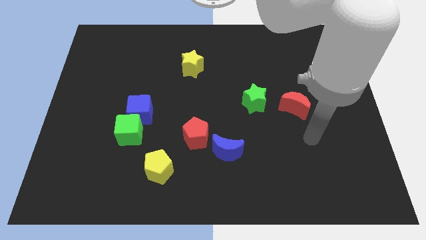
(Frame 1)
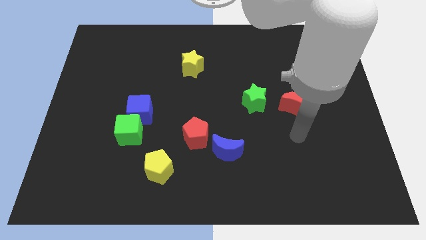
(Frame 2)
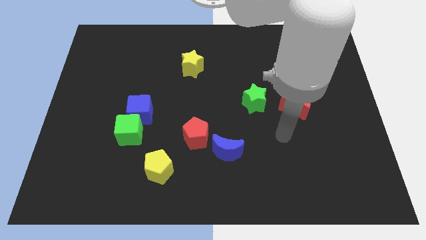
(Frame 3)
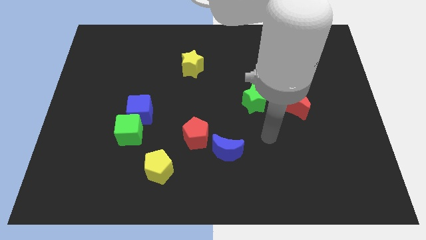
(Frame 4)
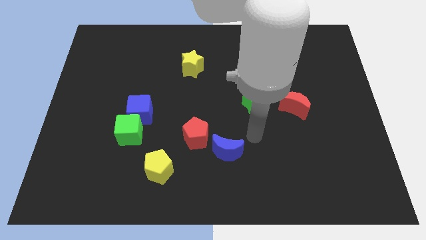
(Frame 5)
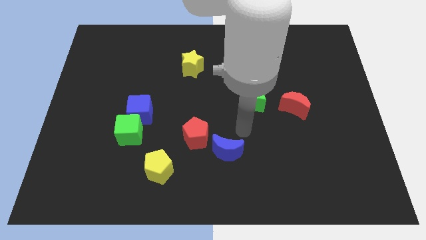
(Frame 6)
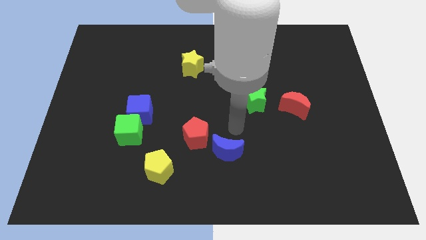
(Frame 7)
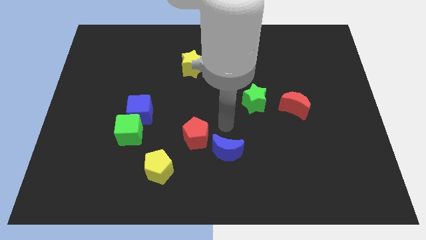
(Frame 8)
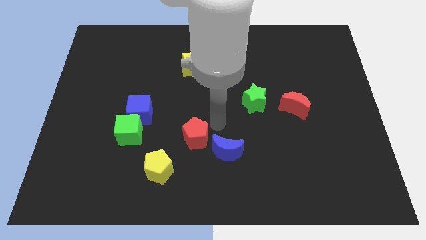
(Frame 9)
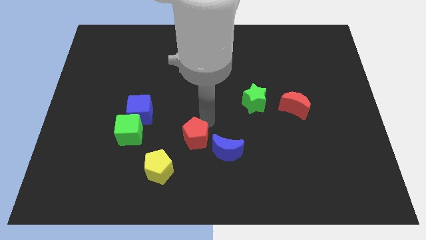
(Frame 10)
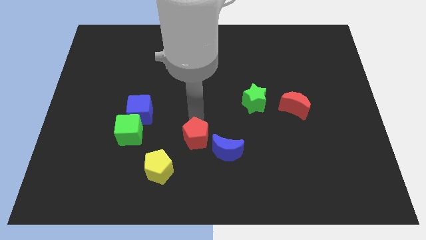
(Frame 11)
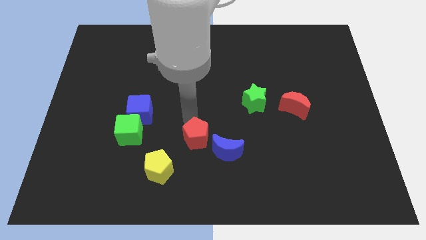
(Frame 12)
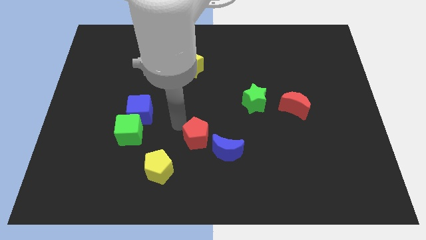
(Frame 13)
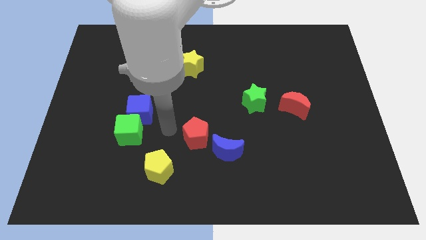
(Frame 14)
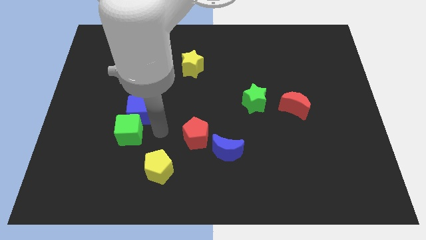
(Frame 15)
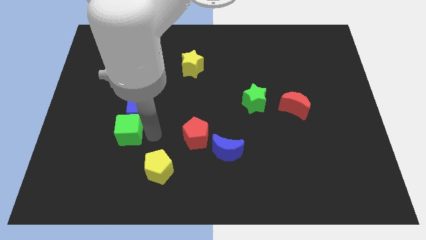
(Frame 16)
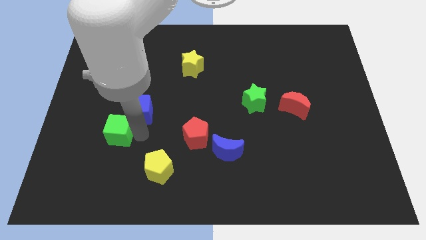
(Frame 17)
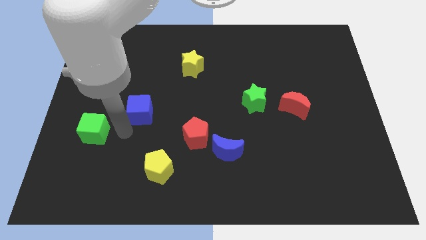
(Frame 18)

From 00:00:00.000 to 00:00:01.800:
move the blue cube away from the green cube

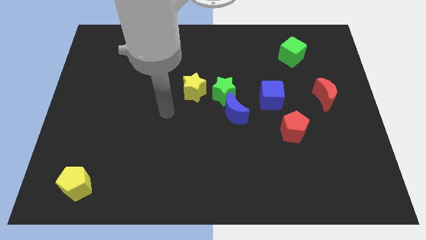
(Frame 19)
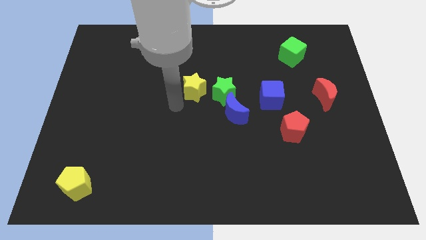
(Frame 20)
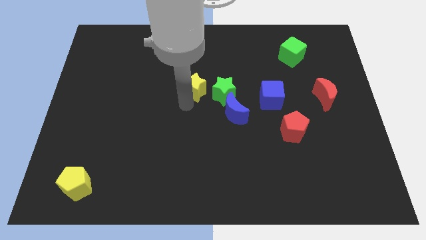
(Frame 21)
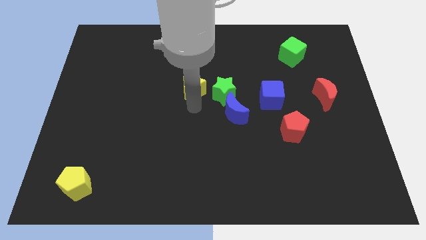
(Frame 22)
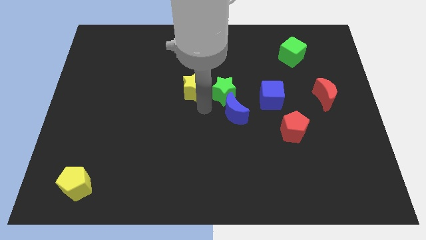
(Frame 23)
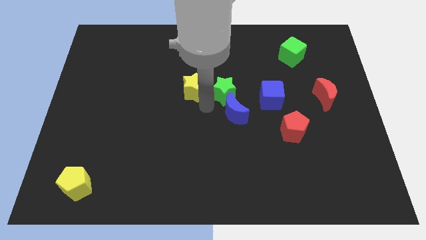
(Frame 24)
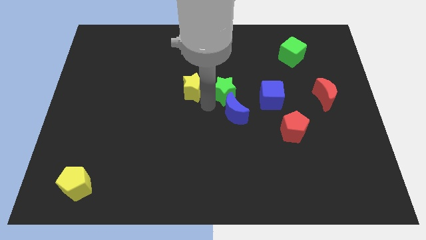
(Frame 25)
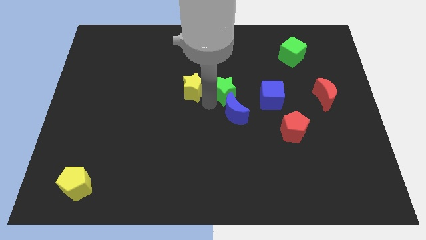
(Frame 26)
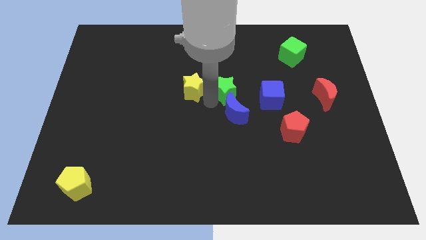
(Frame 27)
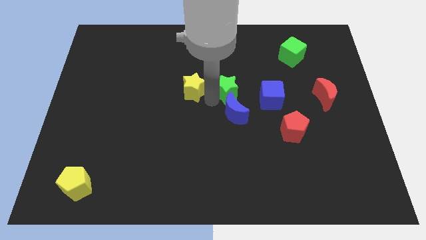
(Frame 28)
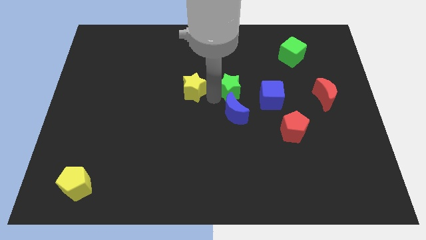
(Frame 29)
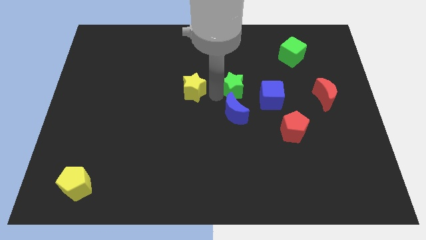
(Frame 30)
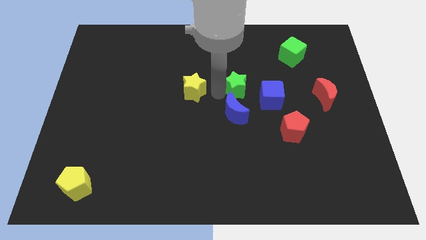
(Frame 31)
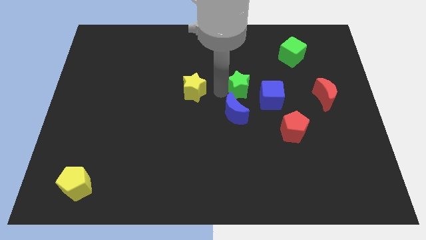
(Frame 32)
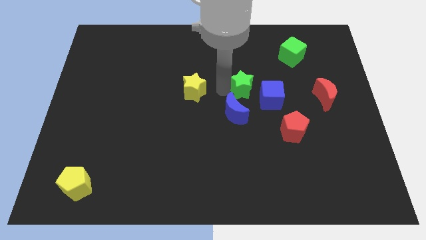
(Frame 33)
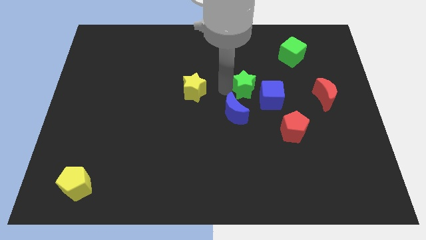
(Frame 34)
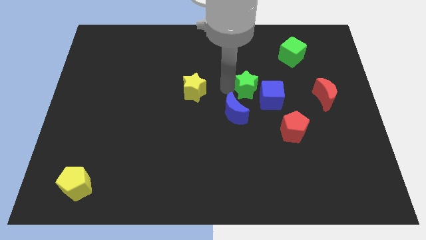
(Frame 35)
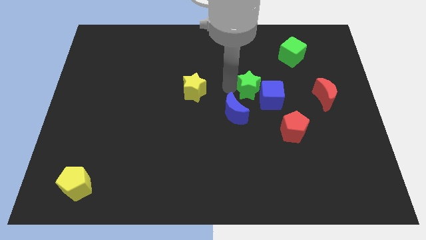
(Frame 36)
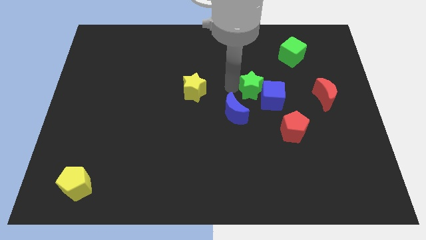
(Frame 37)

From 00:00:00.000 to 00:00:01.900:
separate the green star from the blue moon and yellow star

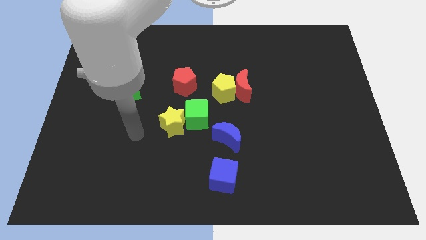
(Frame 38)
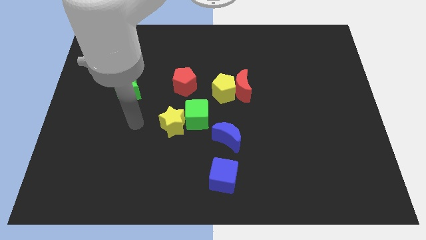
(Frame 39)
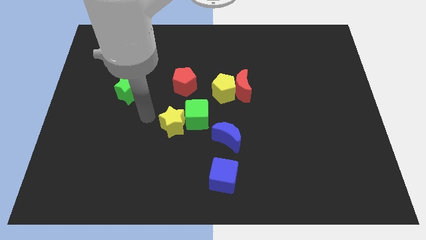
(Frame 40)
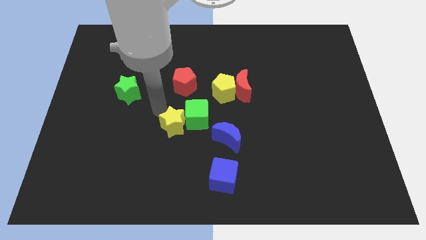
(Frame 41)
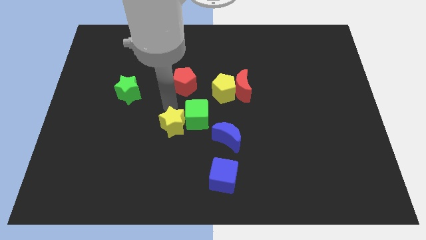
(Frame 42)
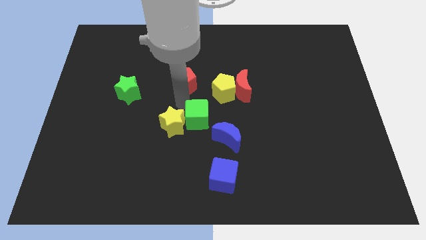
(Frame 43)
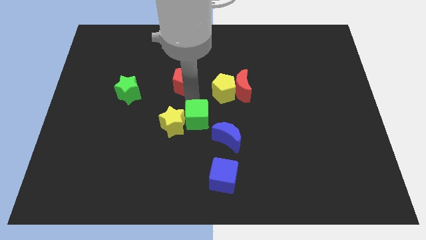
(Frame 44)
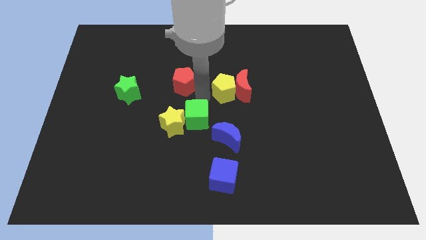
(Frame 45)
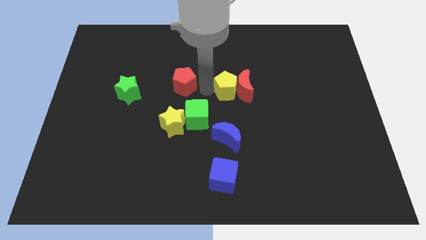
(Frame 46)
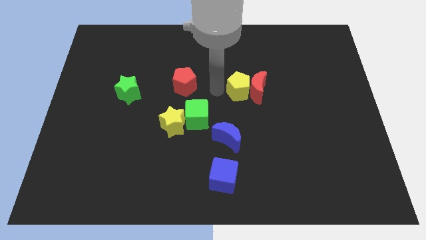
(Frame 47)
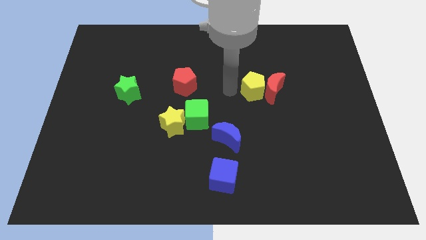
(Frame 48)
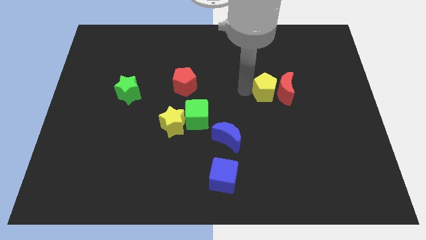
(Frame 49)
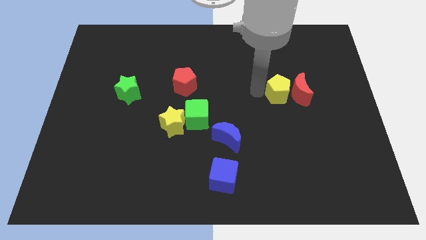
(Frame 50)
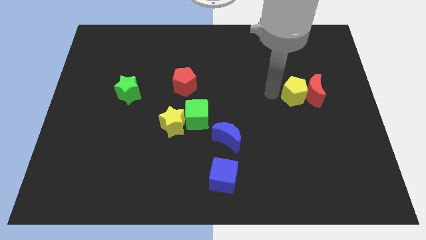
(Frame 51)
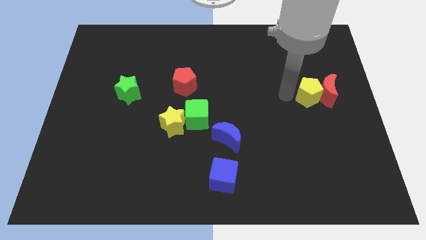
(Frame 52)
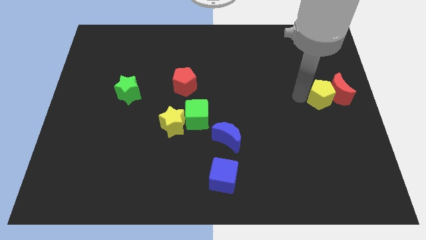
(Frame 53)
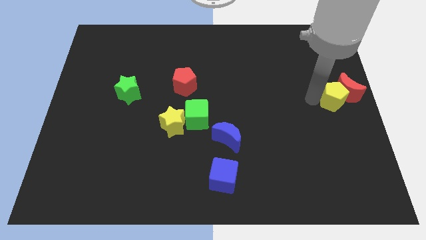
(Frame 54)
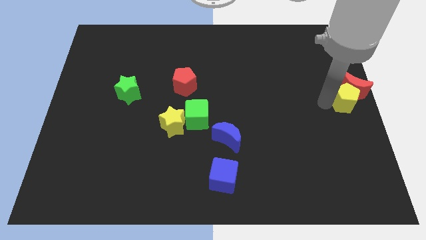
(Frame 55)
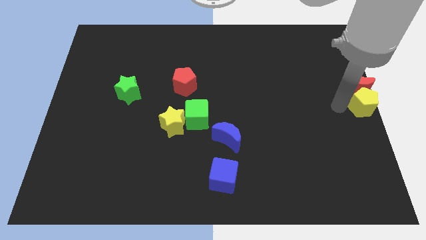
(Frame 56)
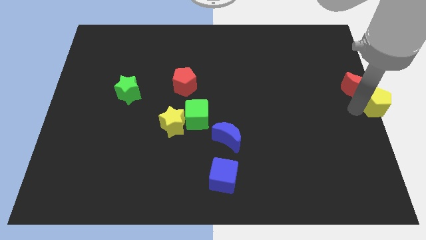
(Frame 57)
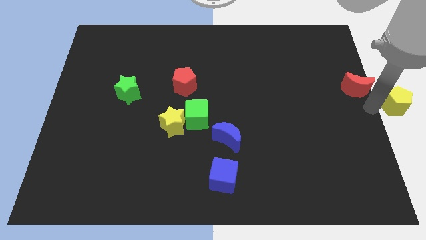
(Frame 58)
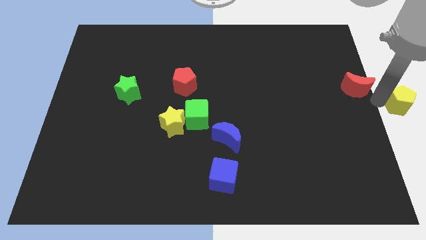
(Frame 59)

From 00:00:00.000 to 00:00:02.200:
pull the red moon apart from the yellow pentagon

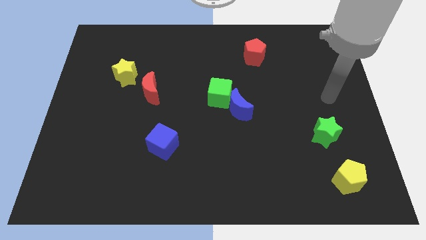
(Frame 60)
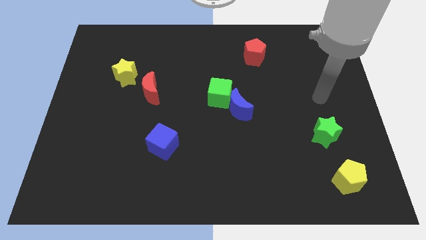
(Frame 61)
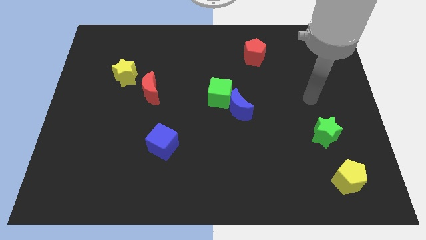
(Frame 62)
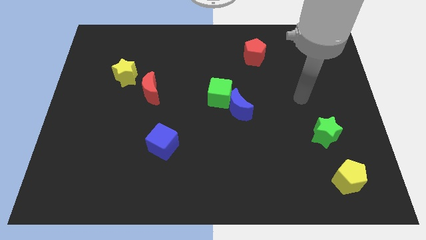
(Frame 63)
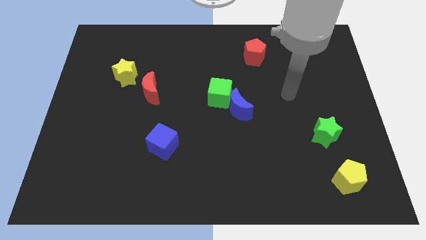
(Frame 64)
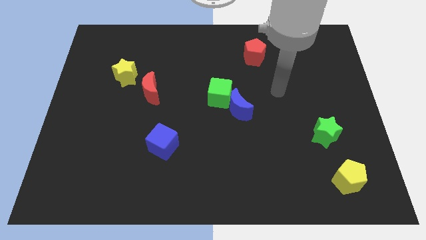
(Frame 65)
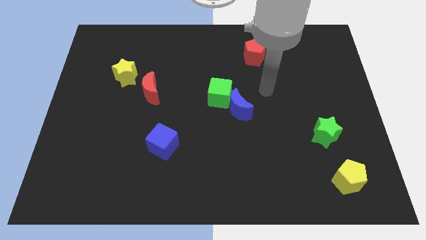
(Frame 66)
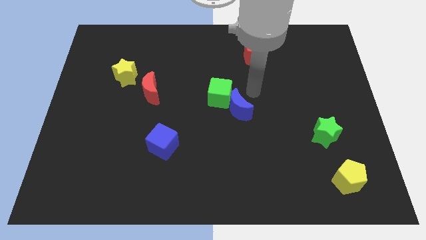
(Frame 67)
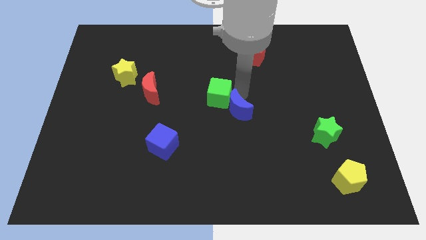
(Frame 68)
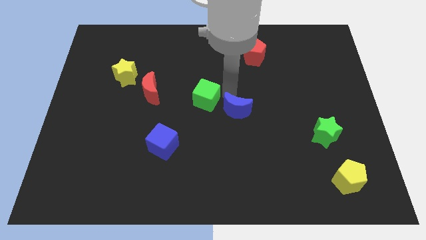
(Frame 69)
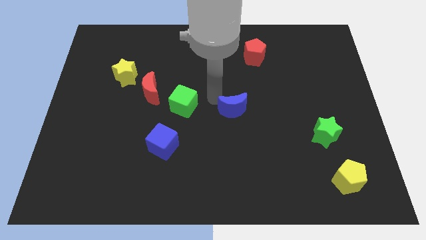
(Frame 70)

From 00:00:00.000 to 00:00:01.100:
separate the blue moon from the green cube

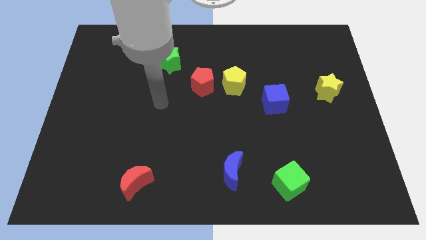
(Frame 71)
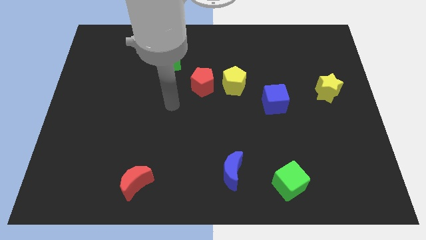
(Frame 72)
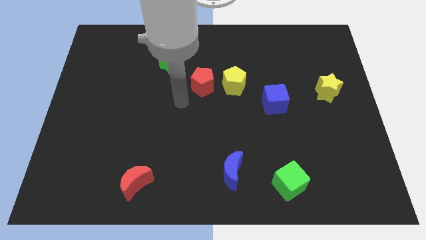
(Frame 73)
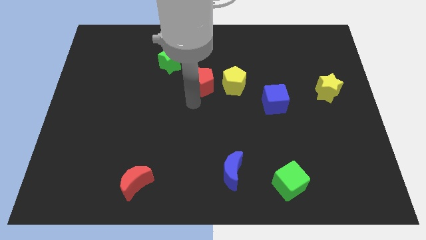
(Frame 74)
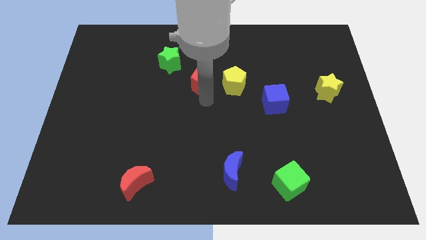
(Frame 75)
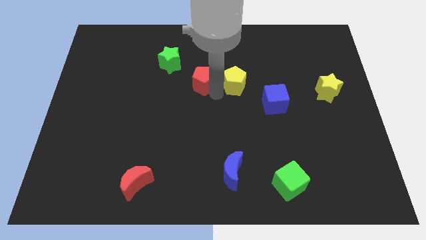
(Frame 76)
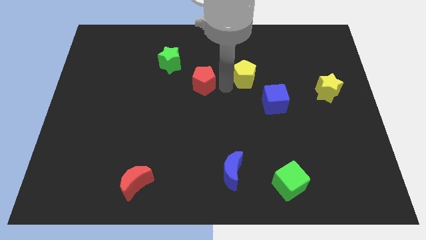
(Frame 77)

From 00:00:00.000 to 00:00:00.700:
separate the red pentagon from the yellow pentagon

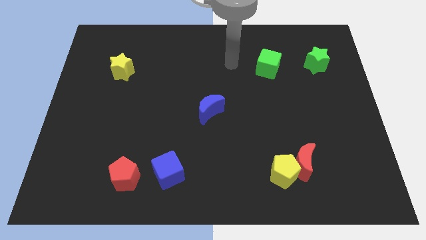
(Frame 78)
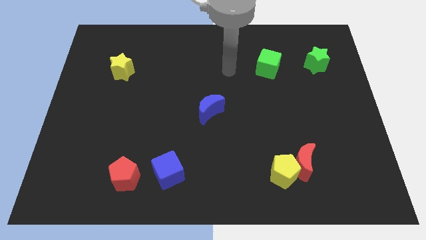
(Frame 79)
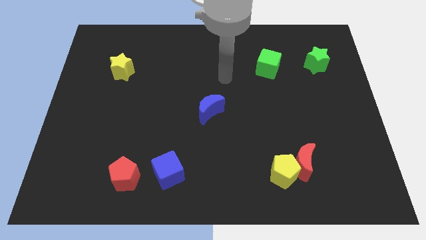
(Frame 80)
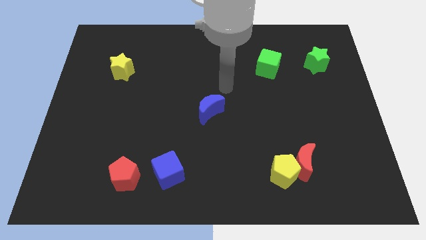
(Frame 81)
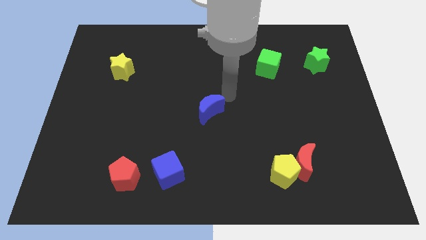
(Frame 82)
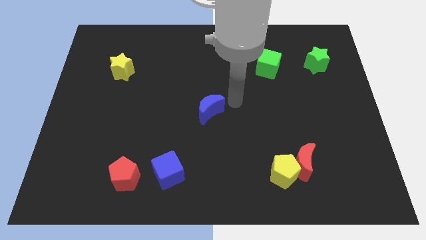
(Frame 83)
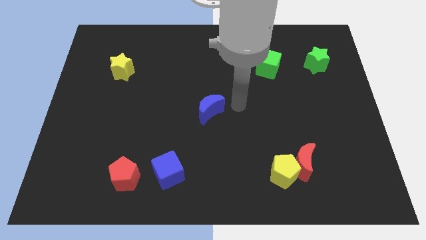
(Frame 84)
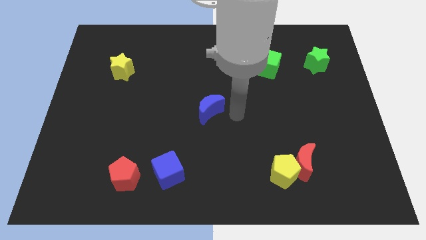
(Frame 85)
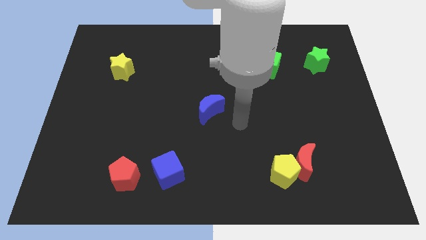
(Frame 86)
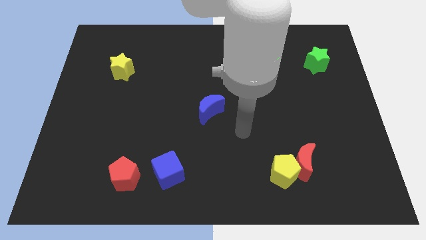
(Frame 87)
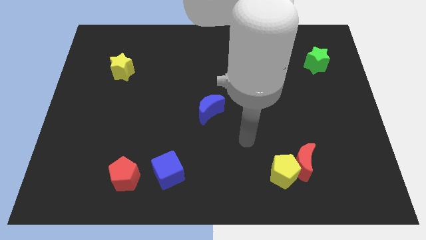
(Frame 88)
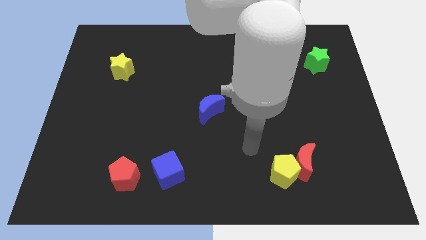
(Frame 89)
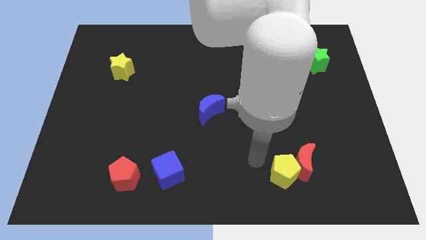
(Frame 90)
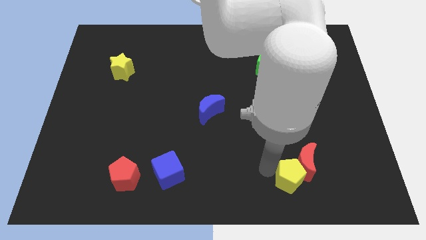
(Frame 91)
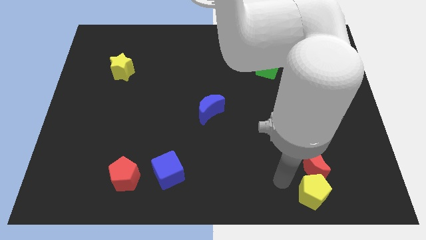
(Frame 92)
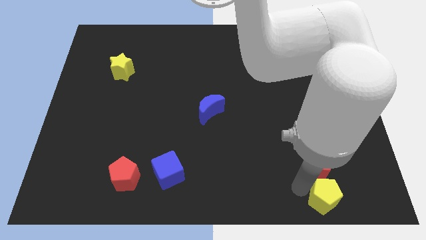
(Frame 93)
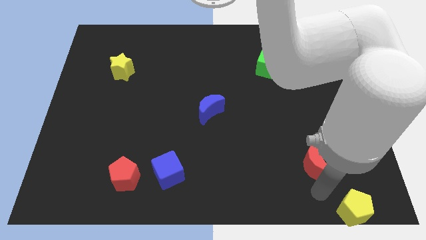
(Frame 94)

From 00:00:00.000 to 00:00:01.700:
separate the red moon from the yellow pentagon
